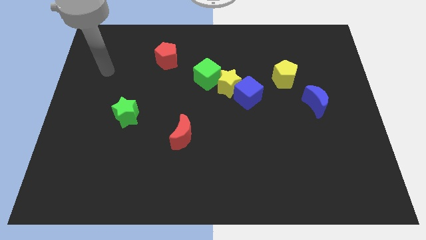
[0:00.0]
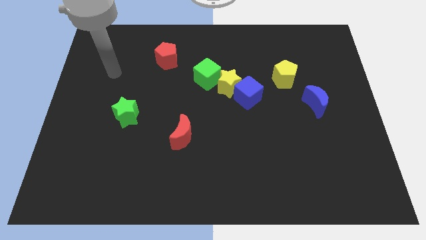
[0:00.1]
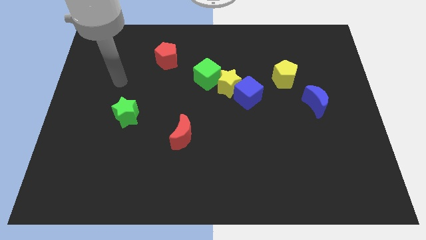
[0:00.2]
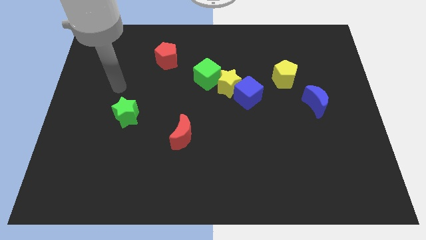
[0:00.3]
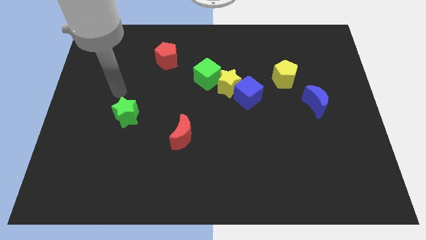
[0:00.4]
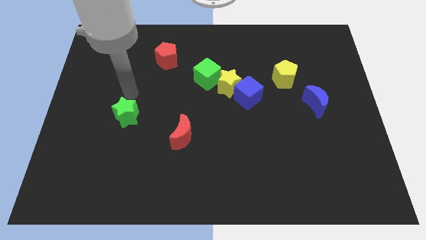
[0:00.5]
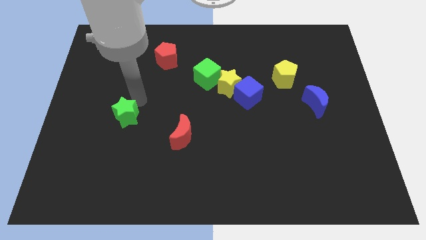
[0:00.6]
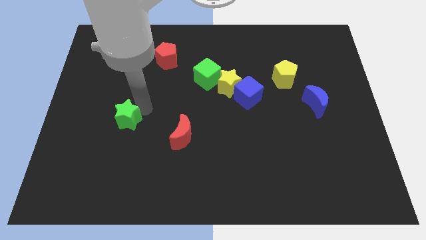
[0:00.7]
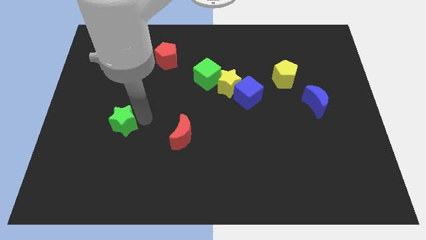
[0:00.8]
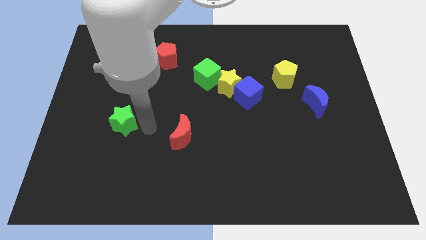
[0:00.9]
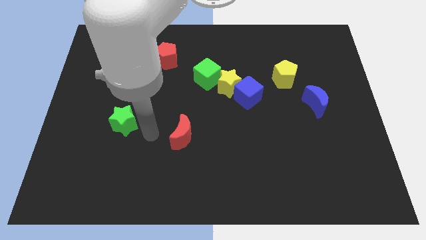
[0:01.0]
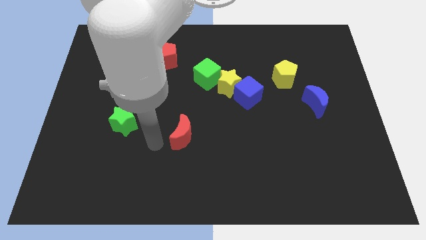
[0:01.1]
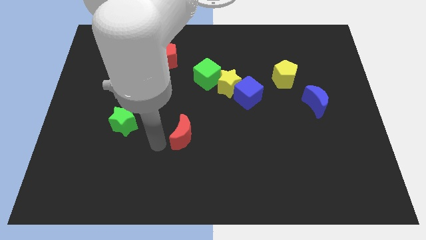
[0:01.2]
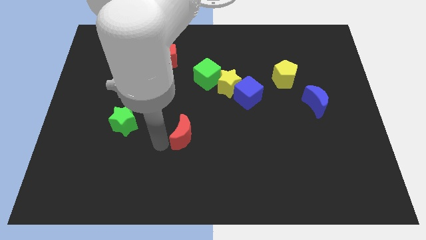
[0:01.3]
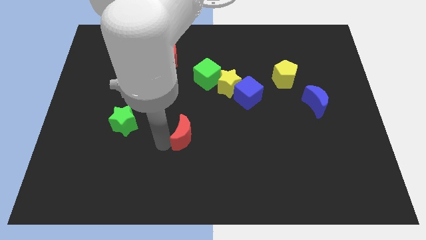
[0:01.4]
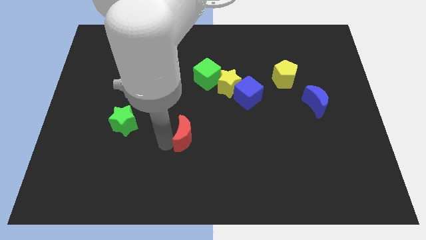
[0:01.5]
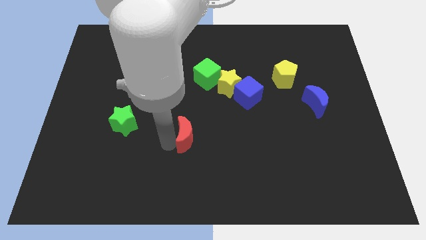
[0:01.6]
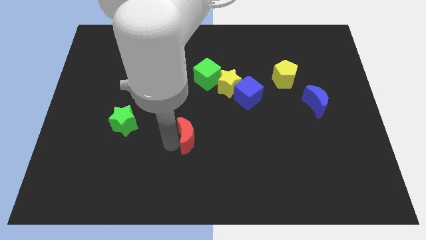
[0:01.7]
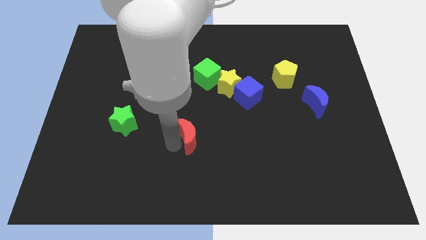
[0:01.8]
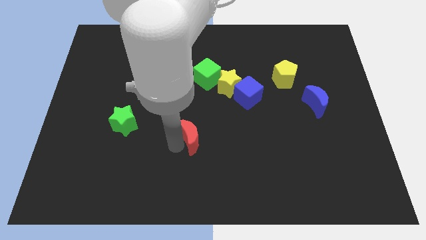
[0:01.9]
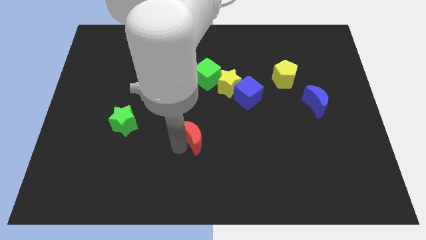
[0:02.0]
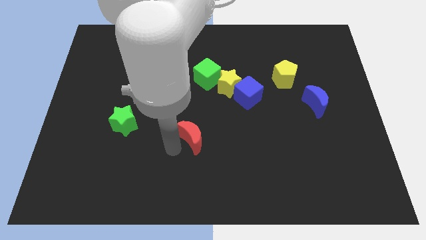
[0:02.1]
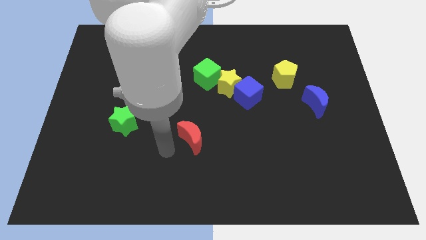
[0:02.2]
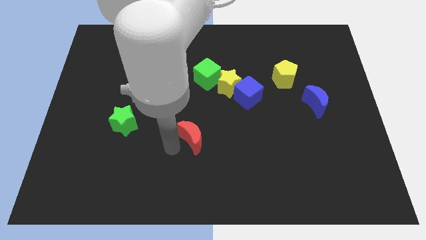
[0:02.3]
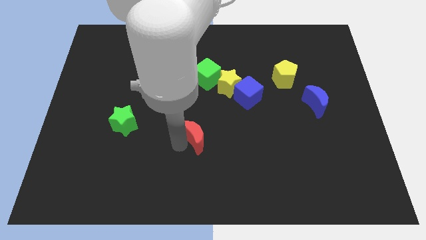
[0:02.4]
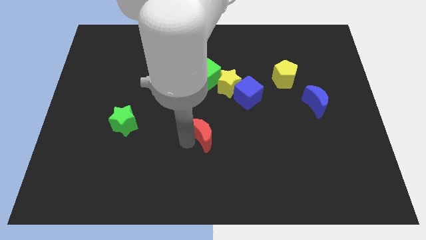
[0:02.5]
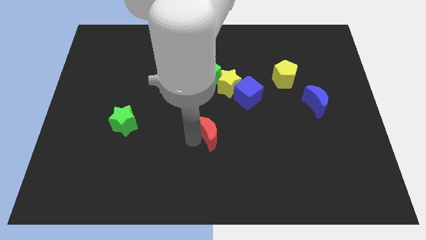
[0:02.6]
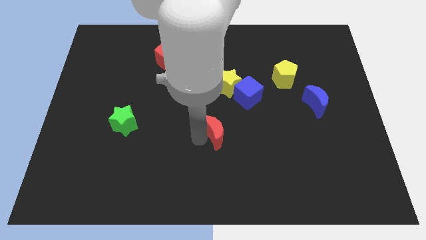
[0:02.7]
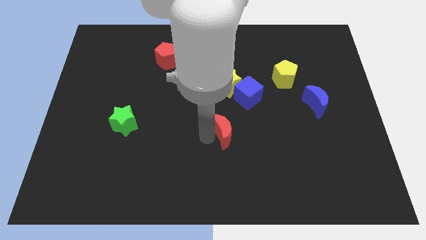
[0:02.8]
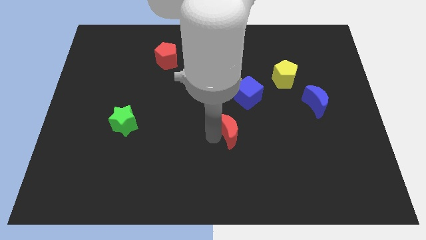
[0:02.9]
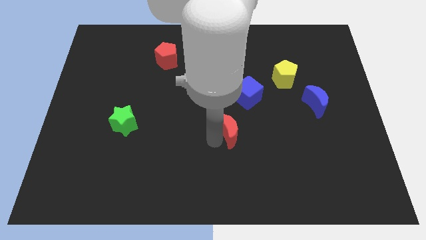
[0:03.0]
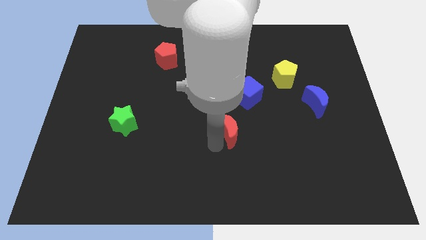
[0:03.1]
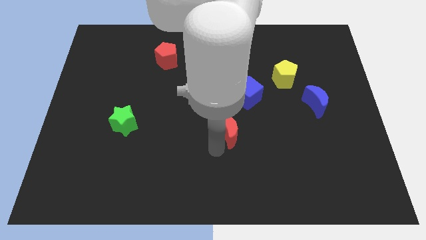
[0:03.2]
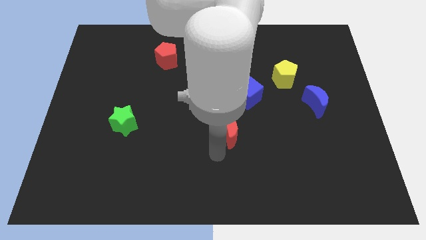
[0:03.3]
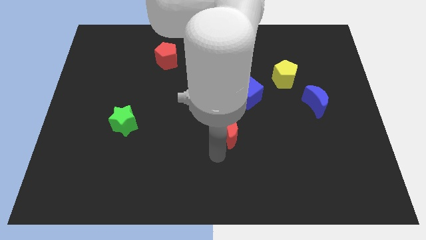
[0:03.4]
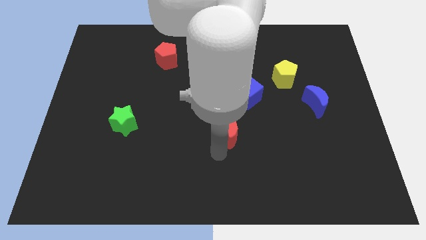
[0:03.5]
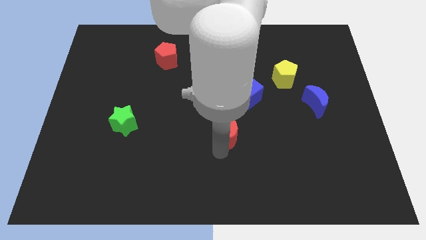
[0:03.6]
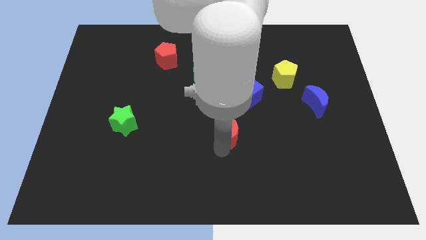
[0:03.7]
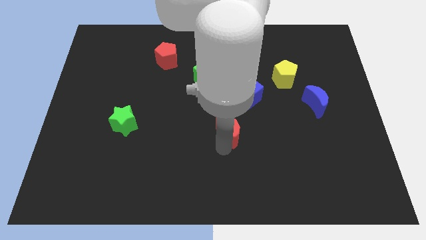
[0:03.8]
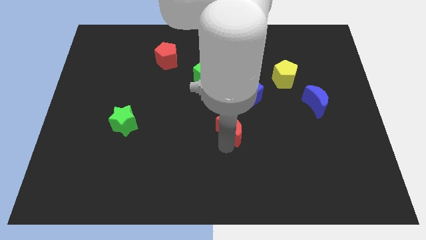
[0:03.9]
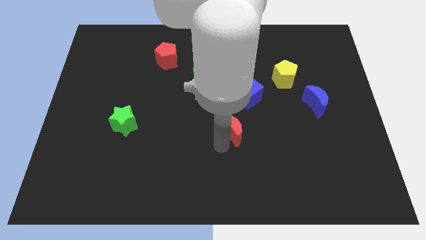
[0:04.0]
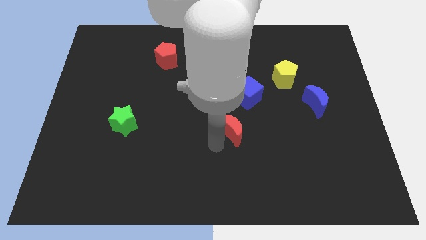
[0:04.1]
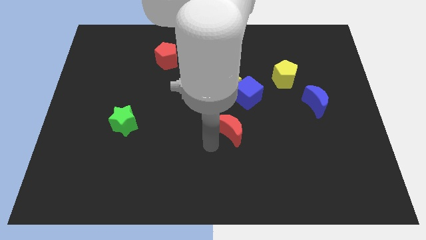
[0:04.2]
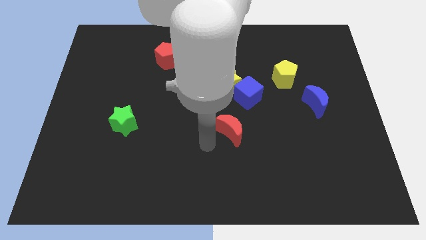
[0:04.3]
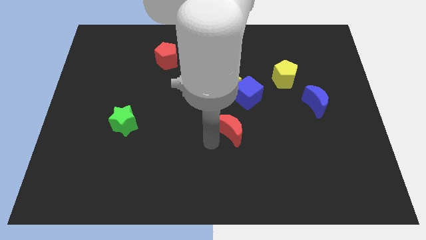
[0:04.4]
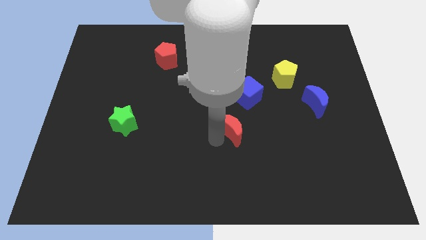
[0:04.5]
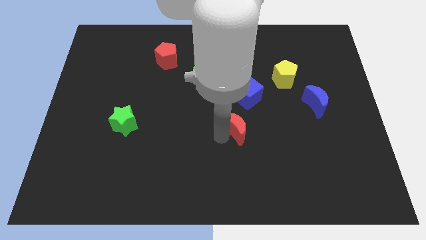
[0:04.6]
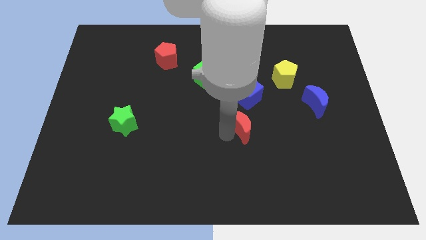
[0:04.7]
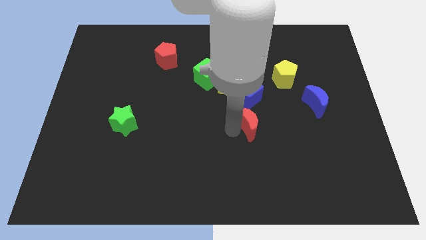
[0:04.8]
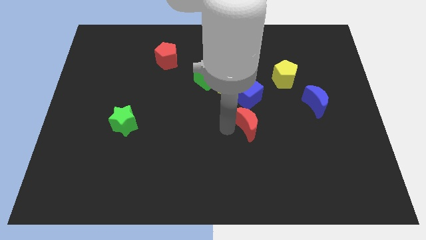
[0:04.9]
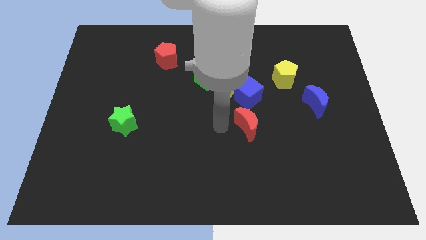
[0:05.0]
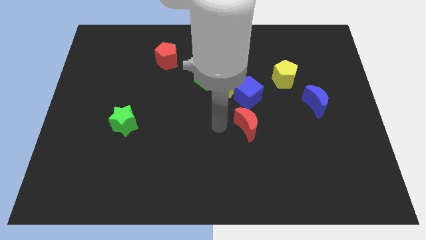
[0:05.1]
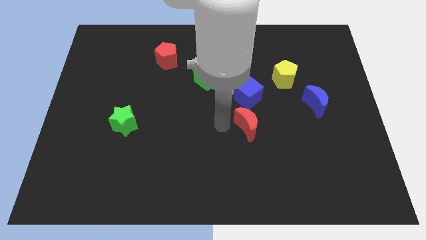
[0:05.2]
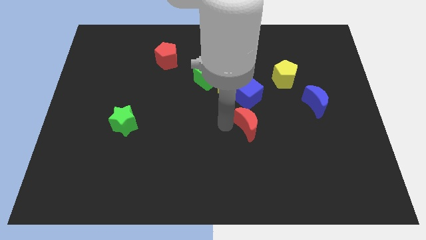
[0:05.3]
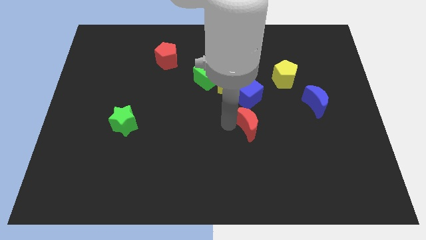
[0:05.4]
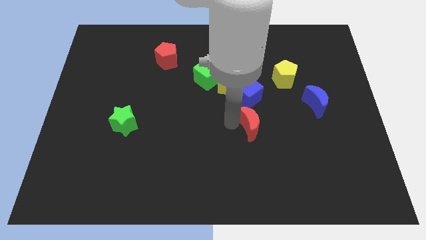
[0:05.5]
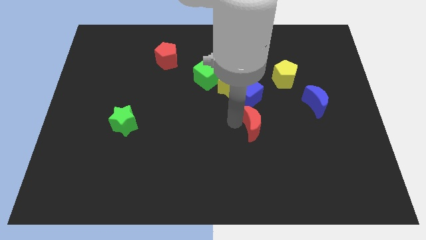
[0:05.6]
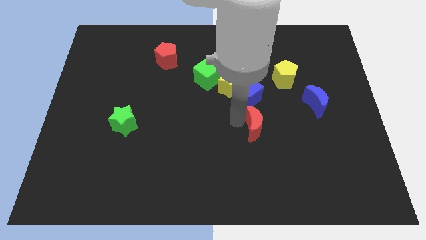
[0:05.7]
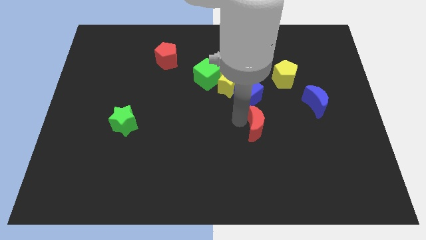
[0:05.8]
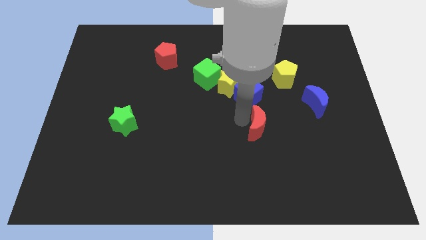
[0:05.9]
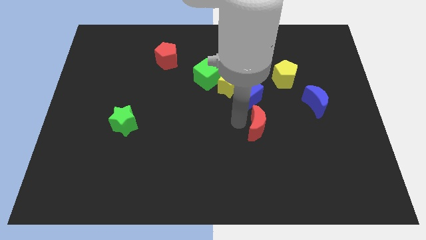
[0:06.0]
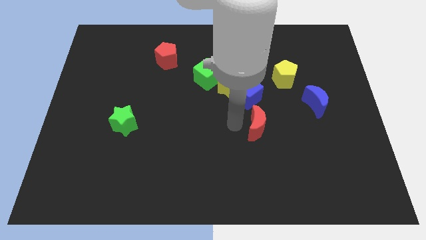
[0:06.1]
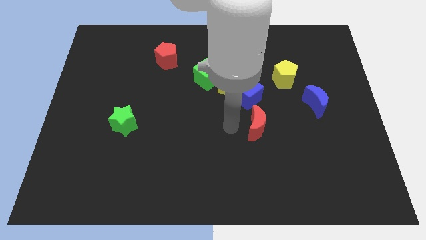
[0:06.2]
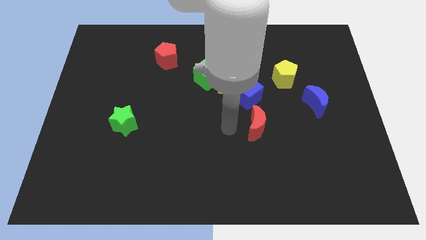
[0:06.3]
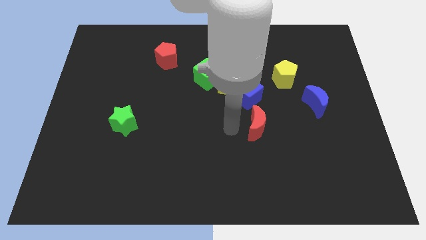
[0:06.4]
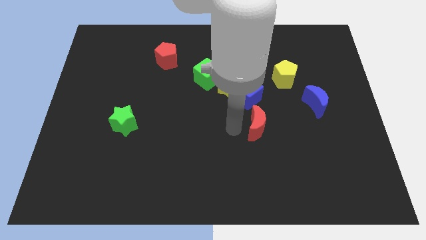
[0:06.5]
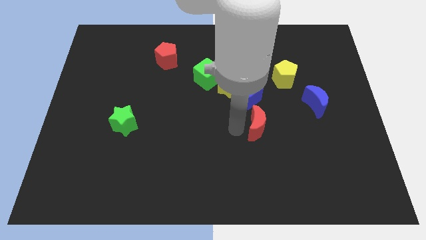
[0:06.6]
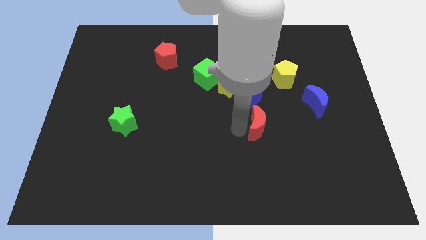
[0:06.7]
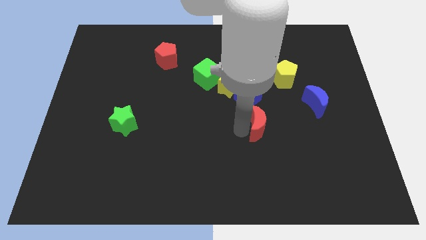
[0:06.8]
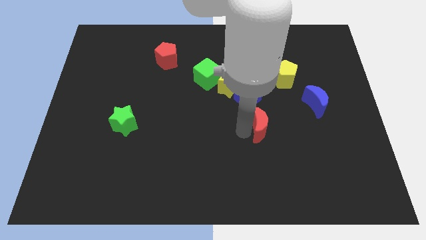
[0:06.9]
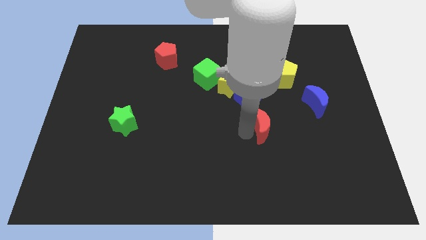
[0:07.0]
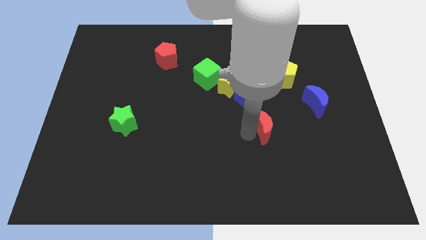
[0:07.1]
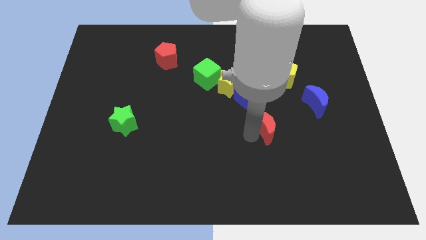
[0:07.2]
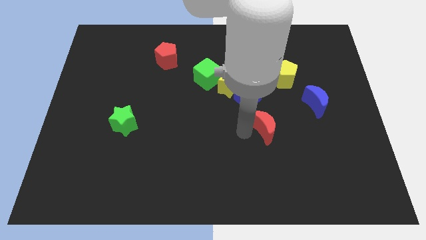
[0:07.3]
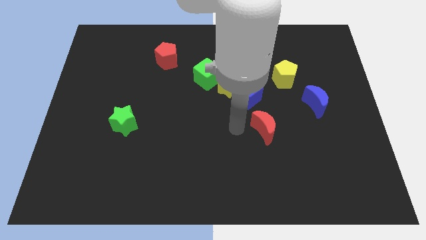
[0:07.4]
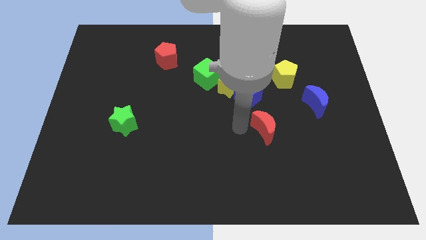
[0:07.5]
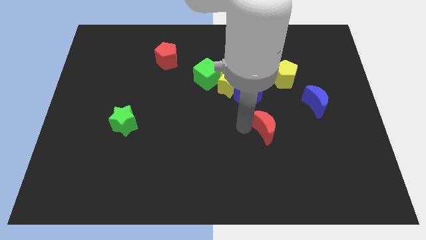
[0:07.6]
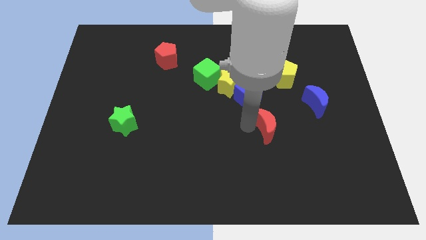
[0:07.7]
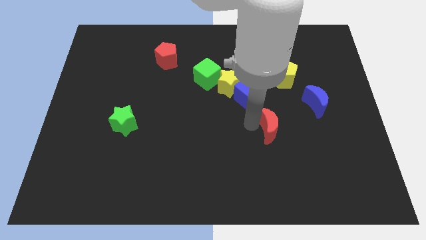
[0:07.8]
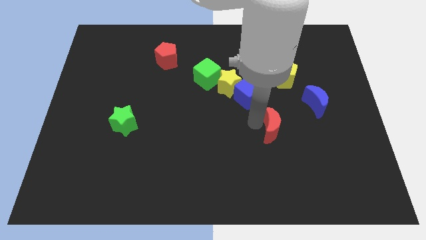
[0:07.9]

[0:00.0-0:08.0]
push the red moon to the right

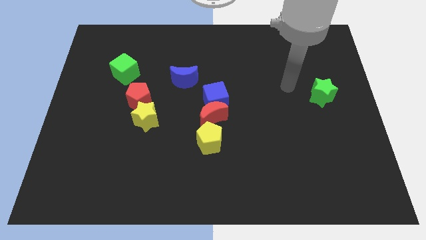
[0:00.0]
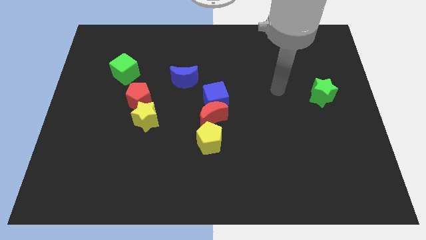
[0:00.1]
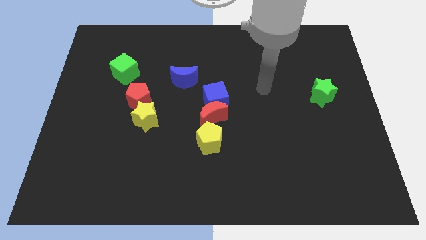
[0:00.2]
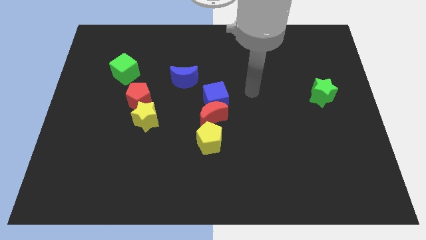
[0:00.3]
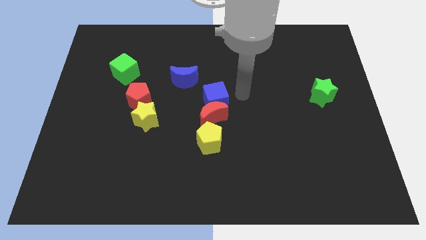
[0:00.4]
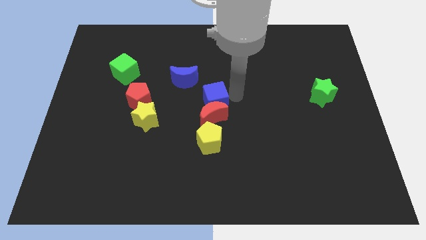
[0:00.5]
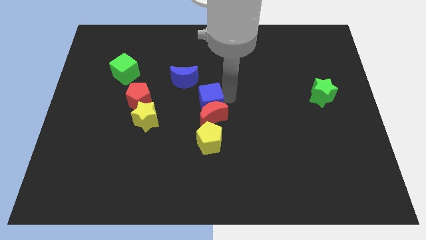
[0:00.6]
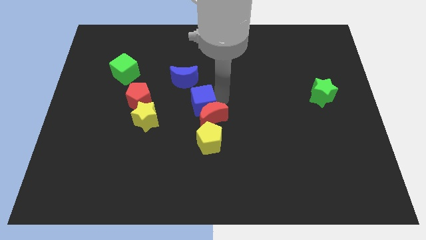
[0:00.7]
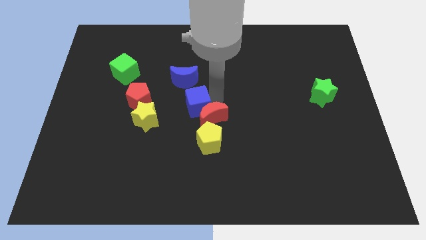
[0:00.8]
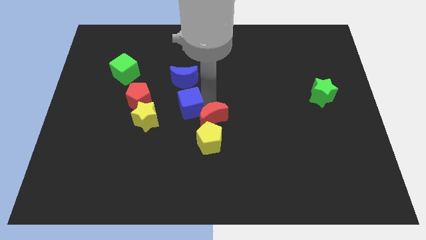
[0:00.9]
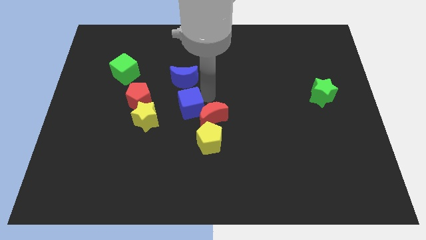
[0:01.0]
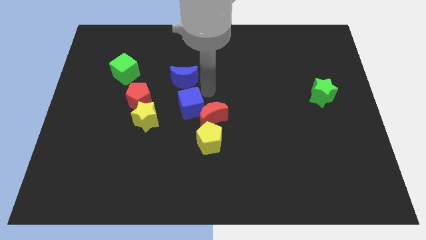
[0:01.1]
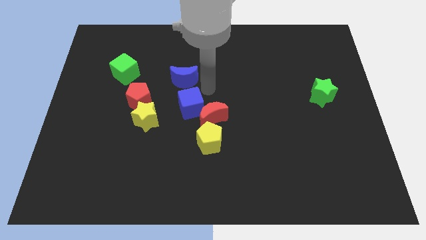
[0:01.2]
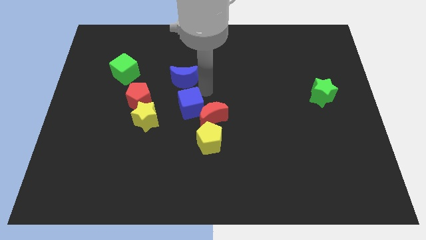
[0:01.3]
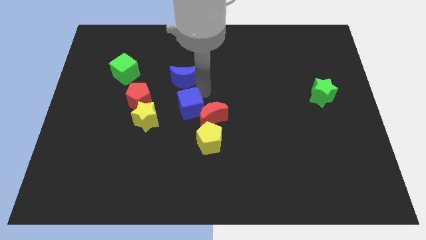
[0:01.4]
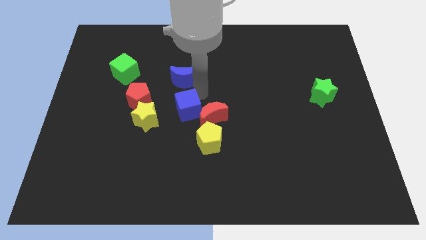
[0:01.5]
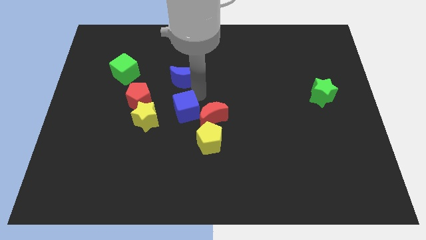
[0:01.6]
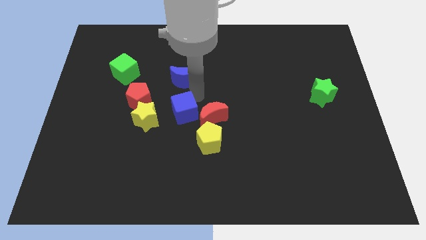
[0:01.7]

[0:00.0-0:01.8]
slightly move the blue cube downwards and left
